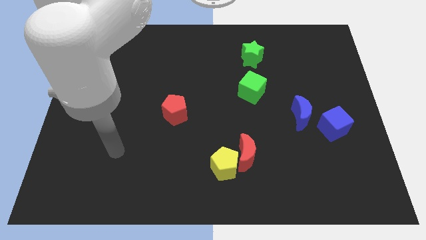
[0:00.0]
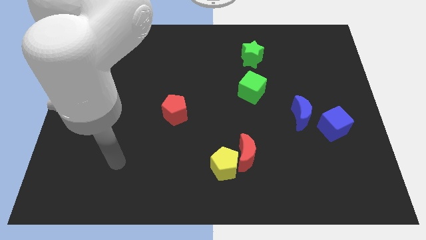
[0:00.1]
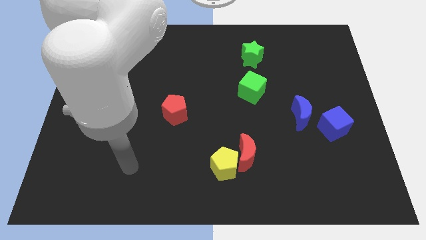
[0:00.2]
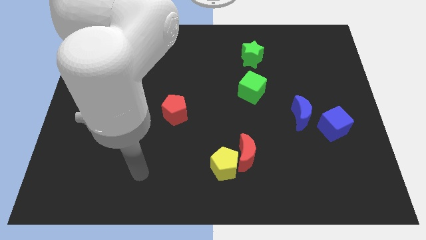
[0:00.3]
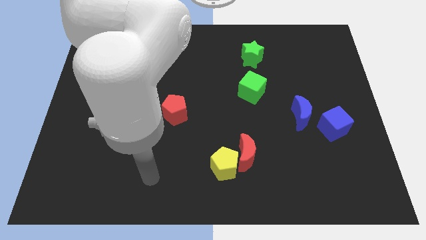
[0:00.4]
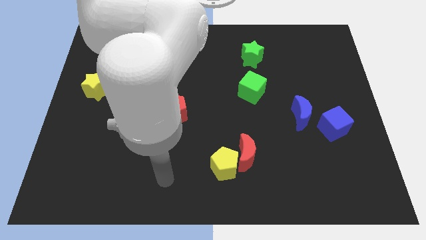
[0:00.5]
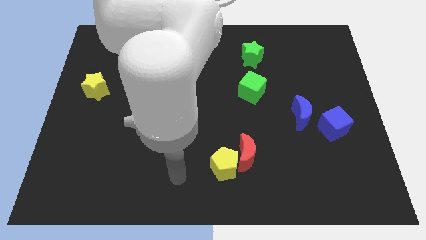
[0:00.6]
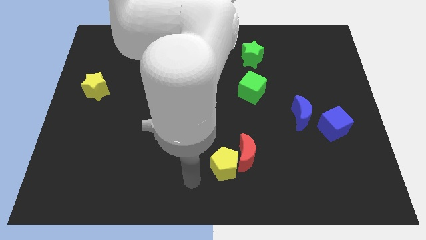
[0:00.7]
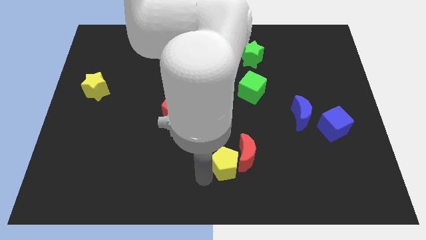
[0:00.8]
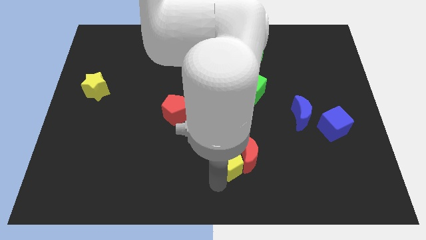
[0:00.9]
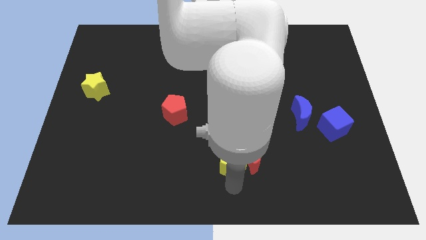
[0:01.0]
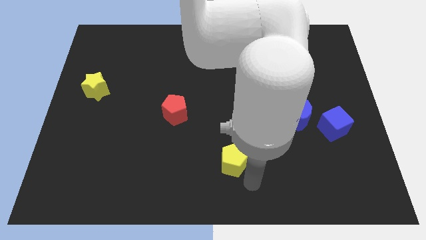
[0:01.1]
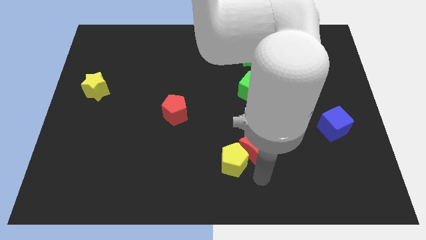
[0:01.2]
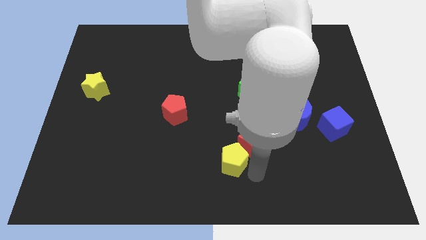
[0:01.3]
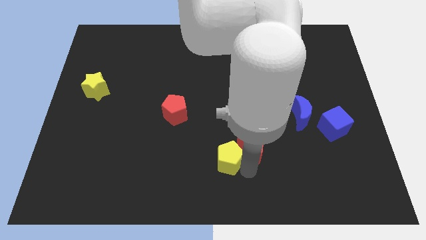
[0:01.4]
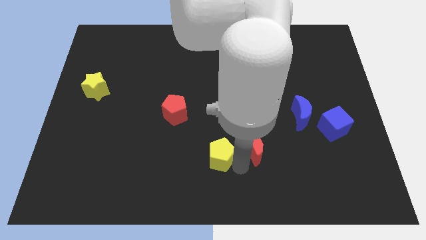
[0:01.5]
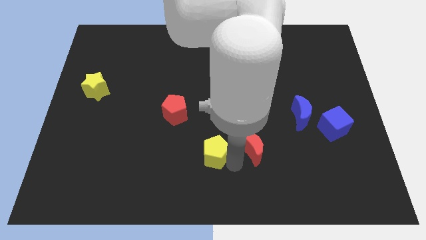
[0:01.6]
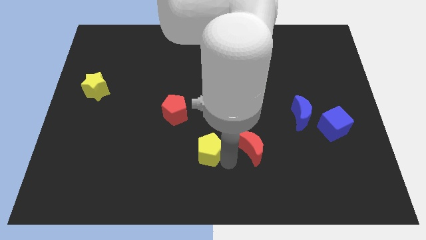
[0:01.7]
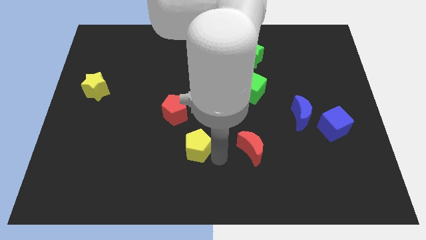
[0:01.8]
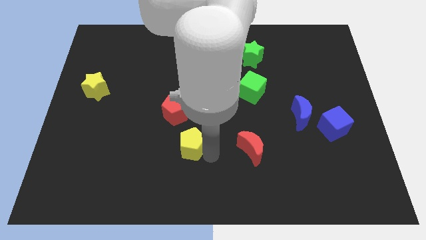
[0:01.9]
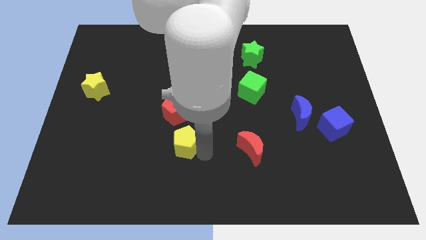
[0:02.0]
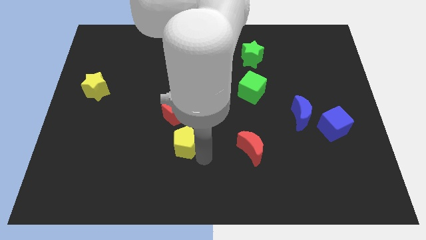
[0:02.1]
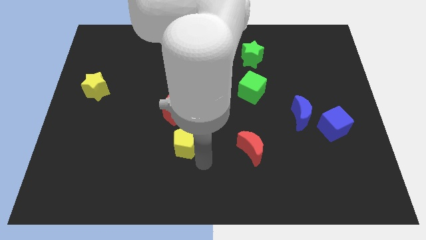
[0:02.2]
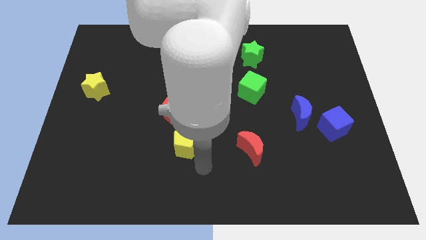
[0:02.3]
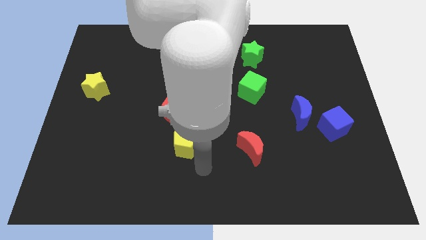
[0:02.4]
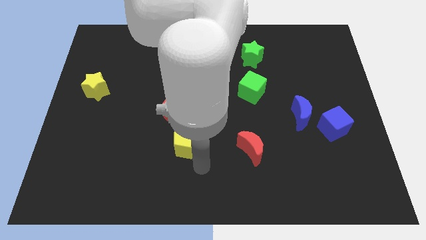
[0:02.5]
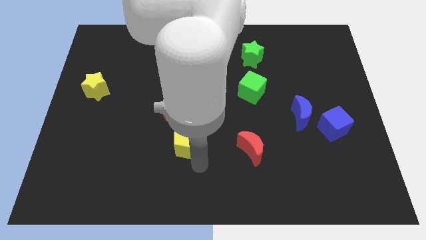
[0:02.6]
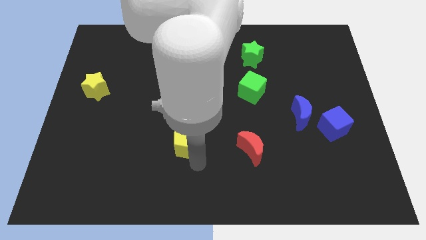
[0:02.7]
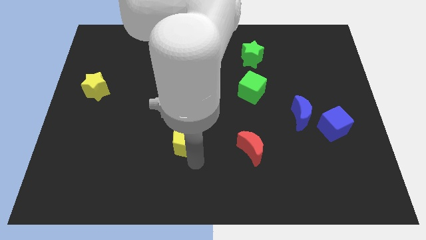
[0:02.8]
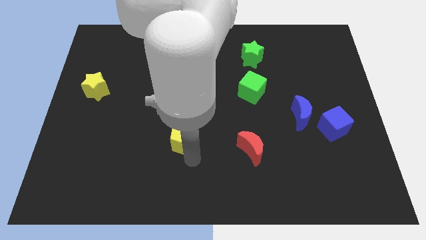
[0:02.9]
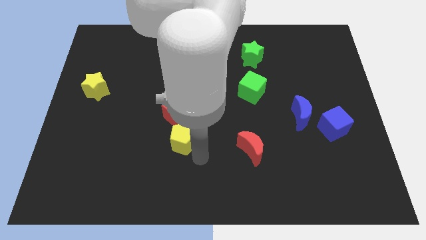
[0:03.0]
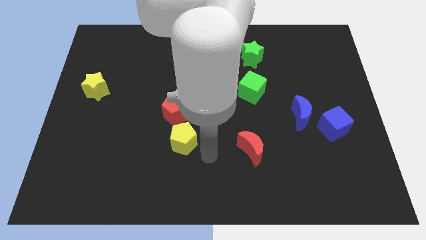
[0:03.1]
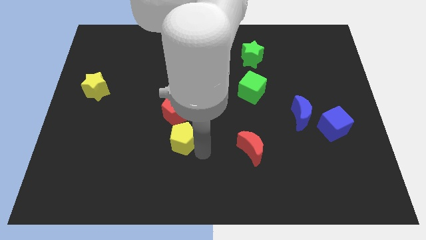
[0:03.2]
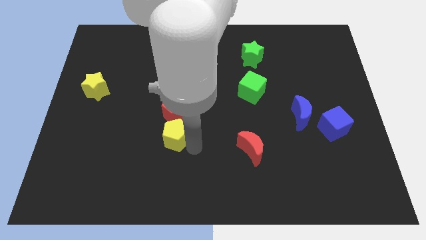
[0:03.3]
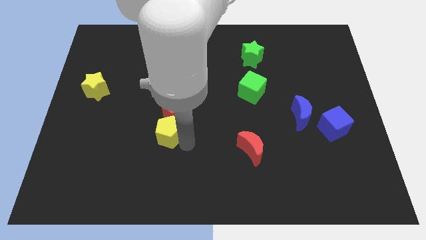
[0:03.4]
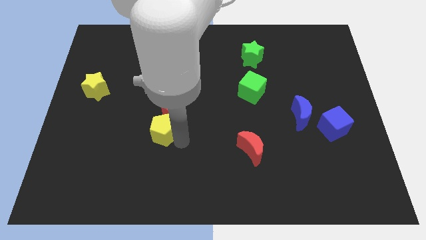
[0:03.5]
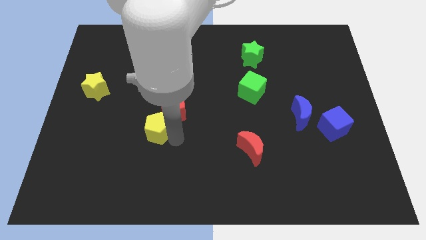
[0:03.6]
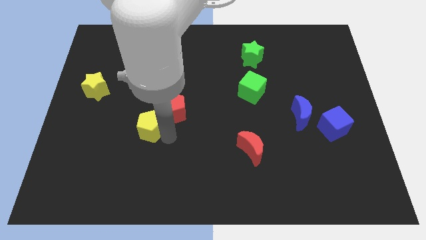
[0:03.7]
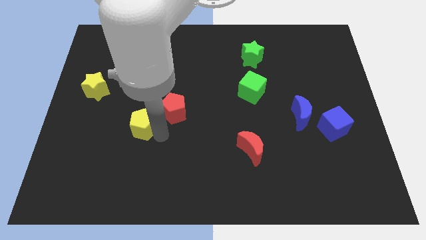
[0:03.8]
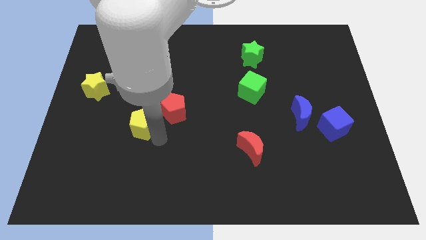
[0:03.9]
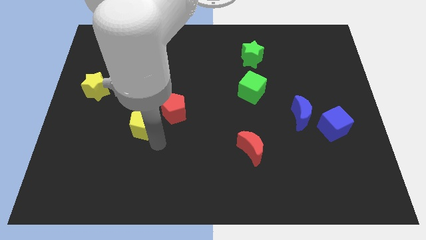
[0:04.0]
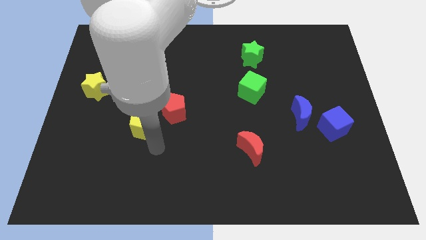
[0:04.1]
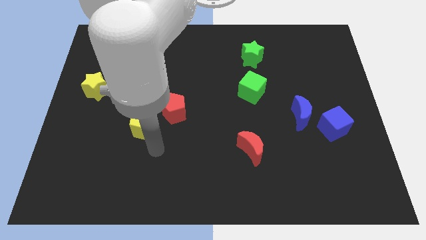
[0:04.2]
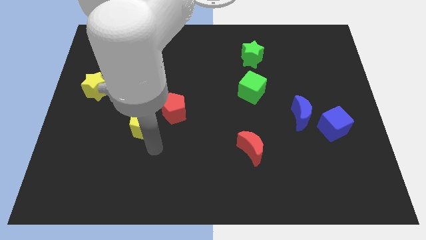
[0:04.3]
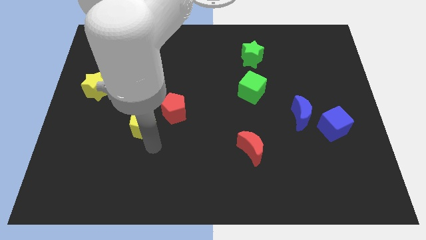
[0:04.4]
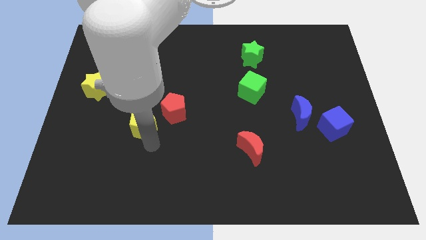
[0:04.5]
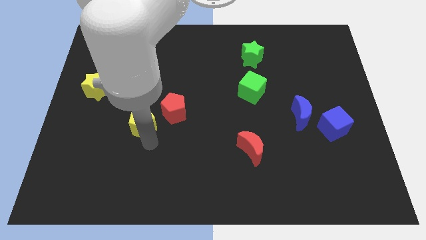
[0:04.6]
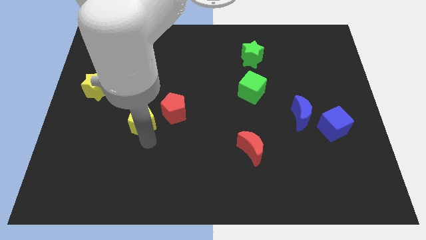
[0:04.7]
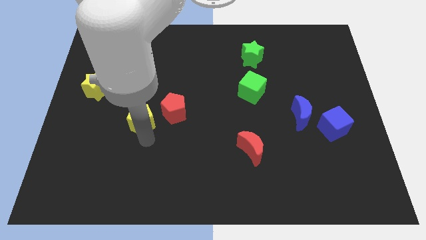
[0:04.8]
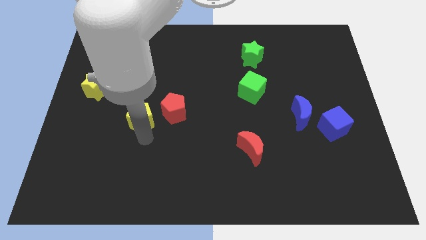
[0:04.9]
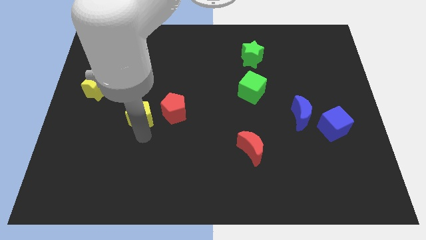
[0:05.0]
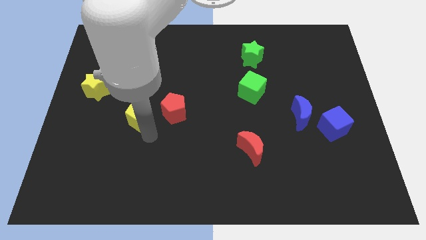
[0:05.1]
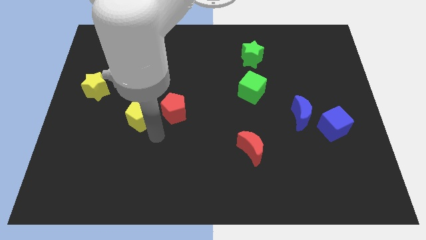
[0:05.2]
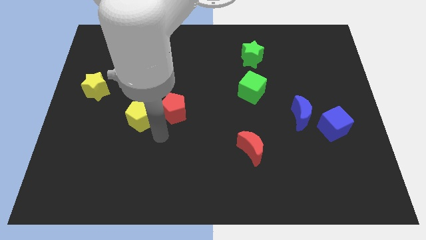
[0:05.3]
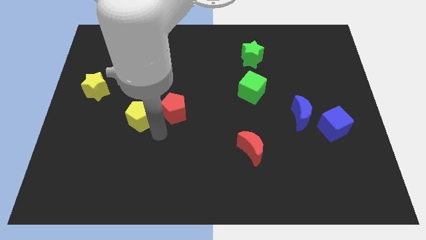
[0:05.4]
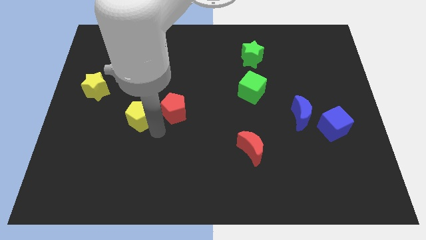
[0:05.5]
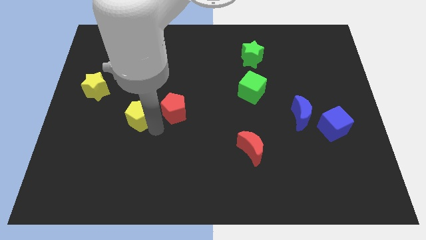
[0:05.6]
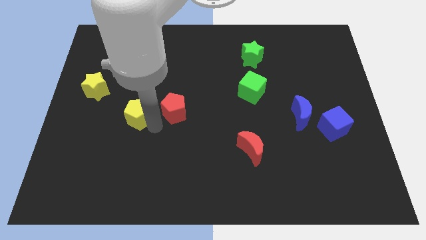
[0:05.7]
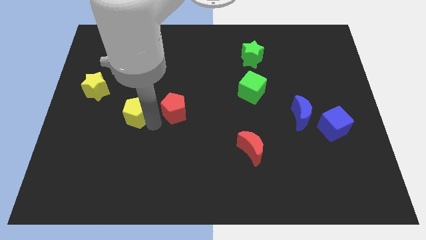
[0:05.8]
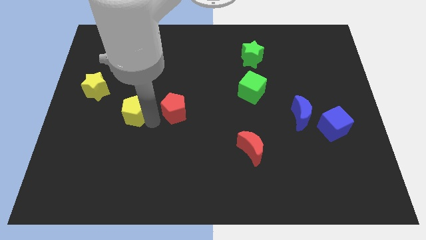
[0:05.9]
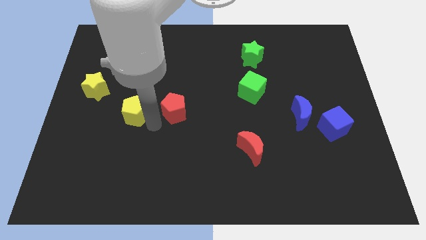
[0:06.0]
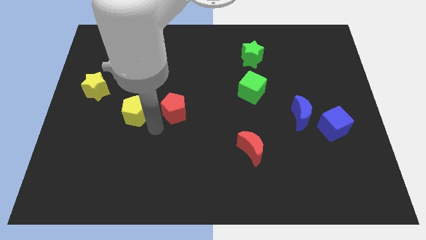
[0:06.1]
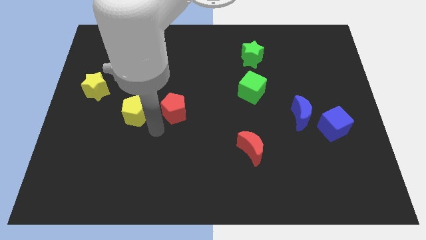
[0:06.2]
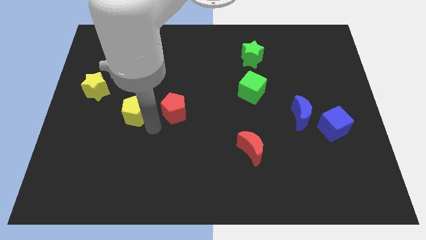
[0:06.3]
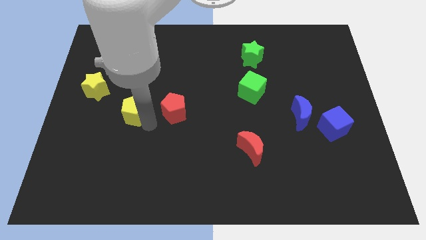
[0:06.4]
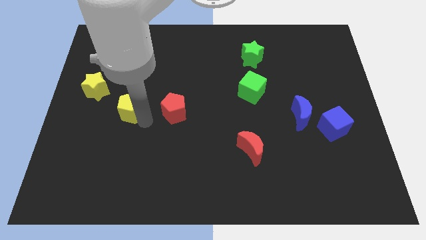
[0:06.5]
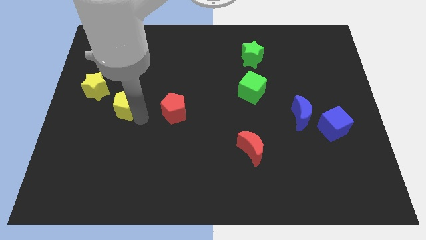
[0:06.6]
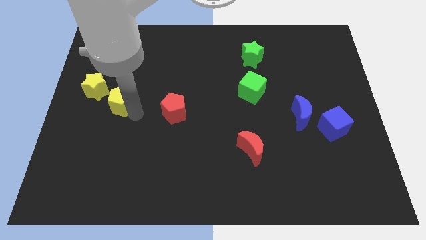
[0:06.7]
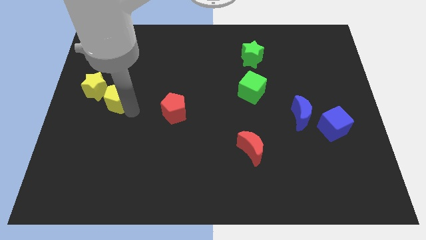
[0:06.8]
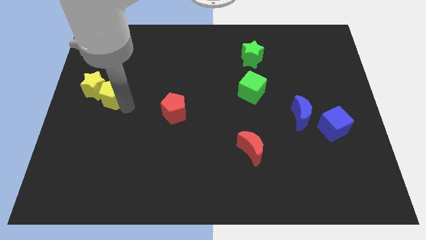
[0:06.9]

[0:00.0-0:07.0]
push the yellow pentagon close to the yellow star

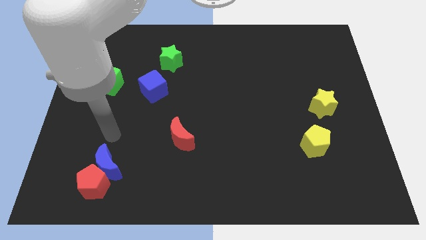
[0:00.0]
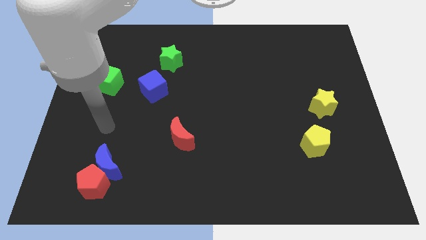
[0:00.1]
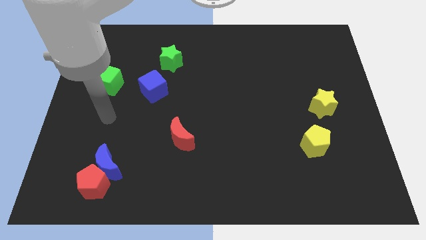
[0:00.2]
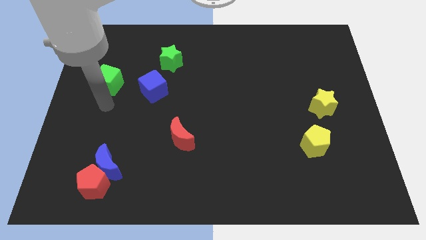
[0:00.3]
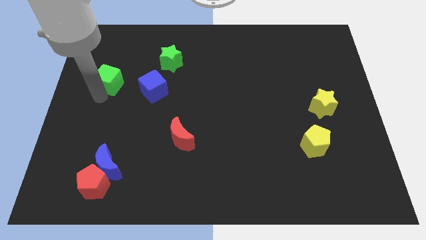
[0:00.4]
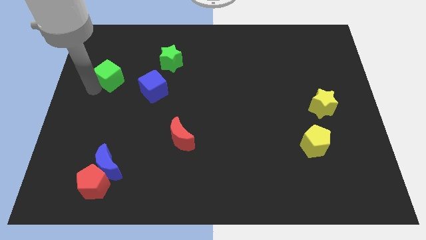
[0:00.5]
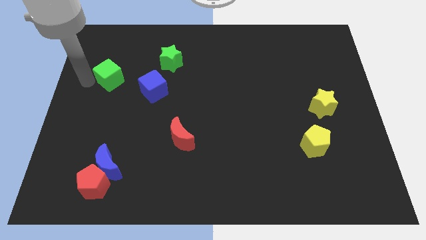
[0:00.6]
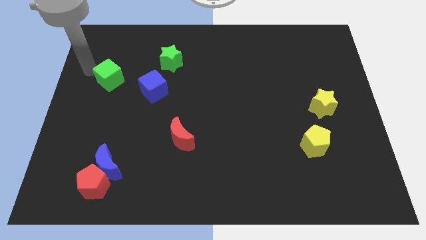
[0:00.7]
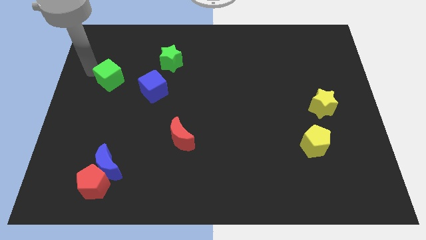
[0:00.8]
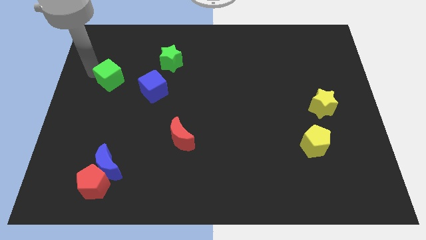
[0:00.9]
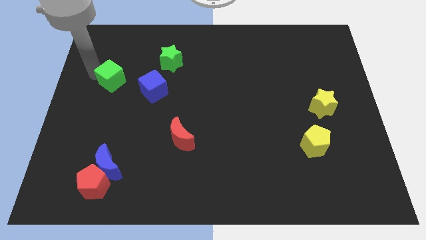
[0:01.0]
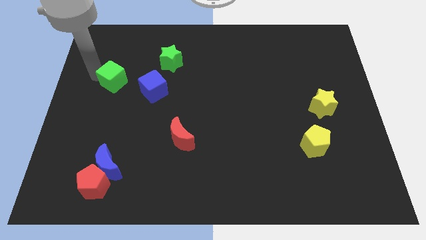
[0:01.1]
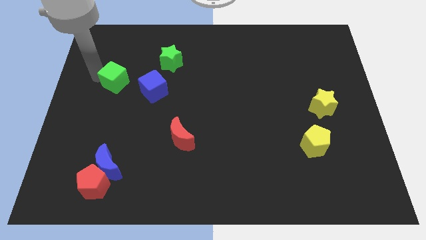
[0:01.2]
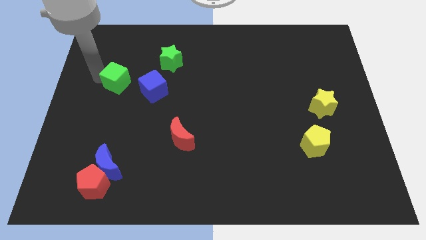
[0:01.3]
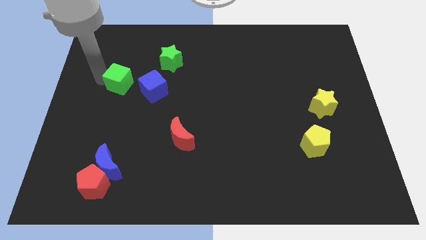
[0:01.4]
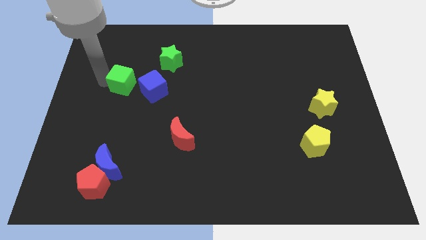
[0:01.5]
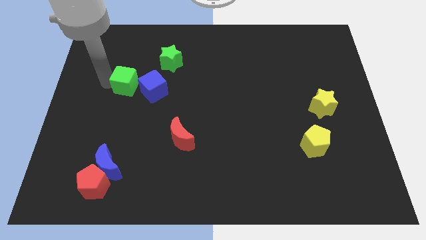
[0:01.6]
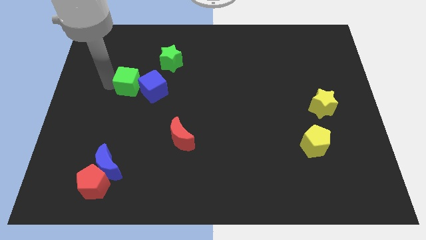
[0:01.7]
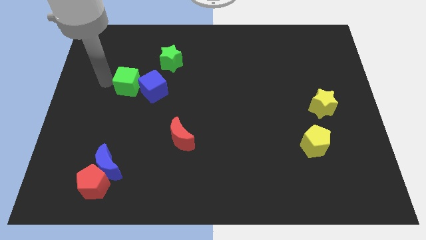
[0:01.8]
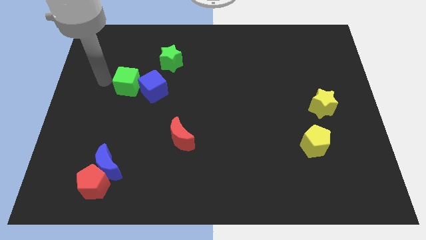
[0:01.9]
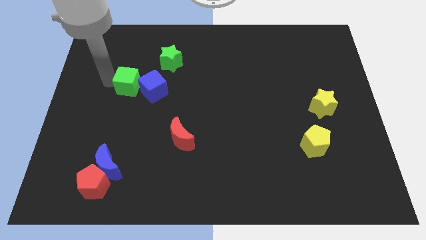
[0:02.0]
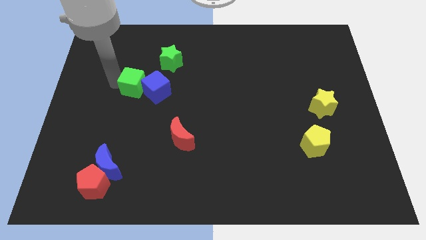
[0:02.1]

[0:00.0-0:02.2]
push the green cube next to the blue cube
